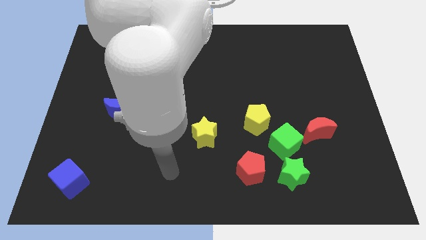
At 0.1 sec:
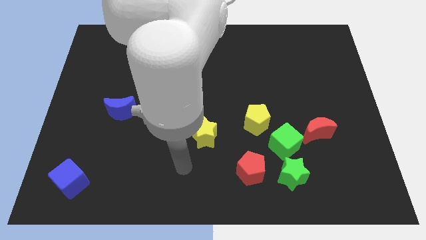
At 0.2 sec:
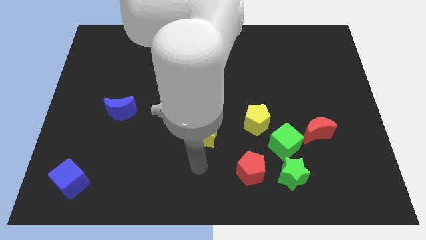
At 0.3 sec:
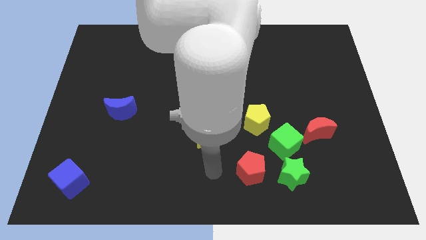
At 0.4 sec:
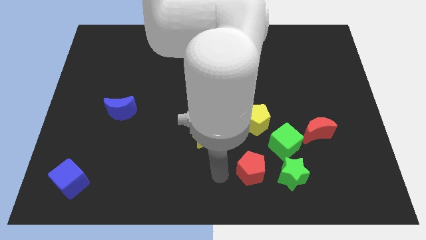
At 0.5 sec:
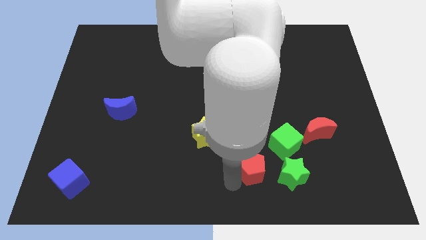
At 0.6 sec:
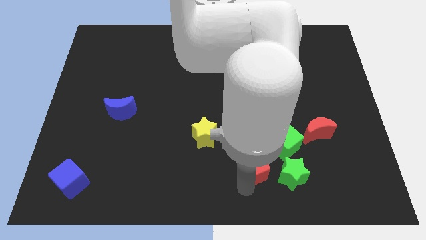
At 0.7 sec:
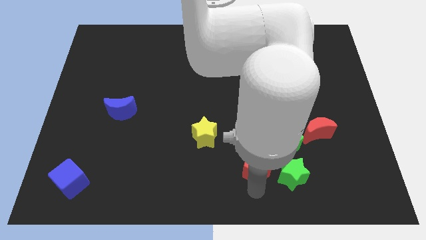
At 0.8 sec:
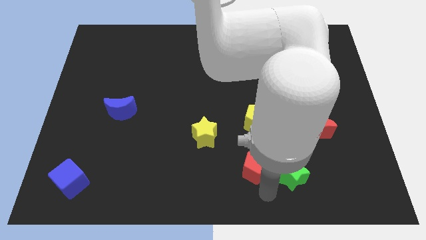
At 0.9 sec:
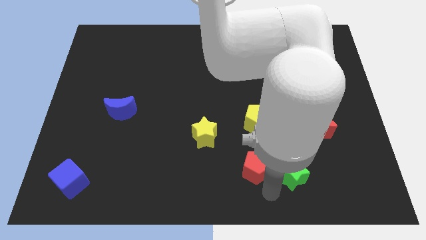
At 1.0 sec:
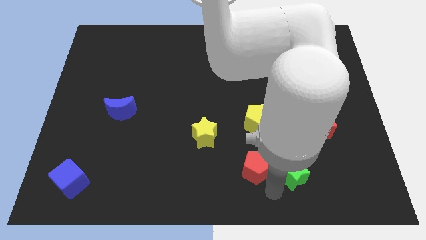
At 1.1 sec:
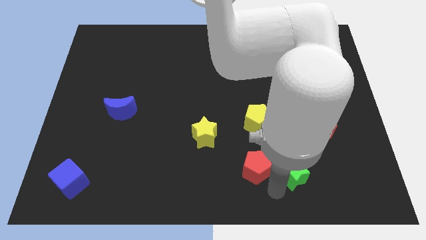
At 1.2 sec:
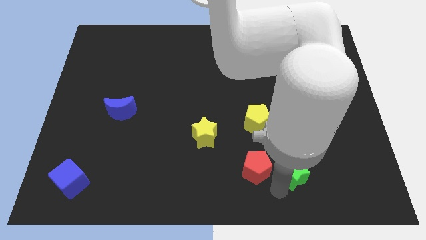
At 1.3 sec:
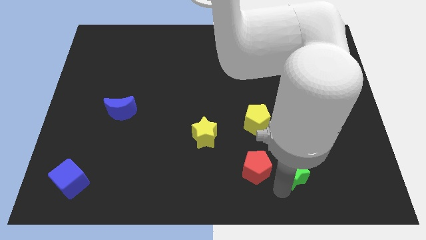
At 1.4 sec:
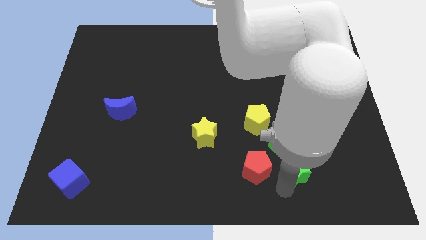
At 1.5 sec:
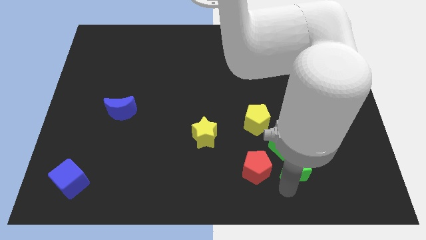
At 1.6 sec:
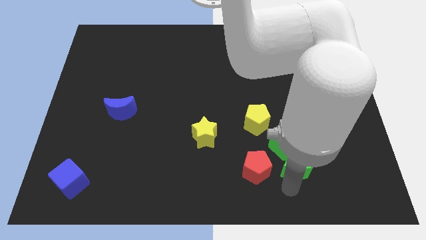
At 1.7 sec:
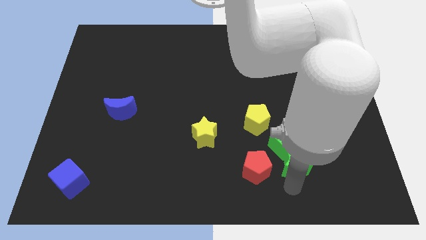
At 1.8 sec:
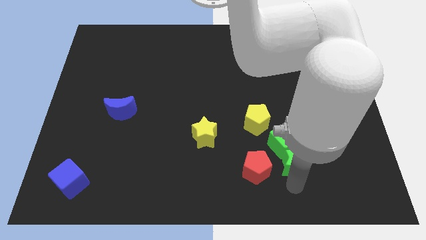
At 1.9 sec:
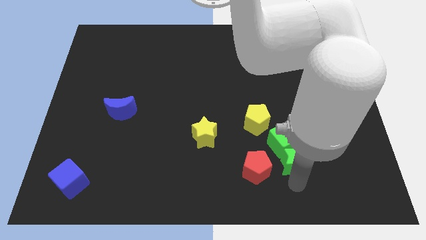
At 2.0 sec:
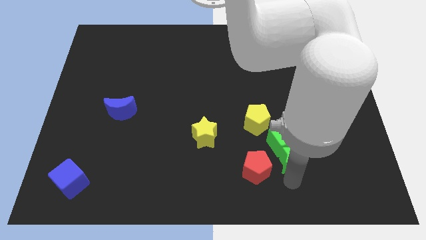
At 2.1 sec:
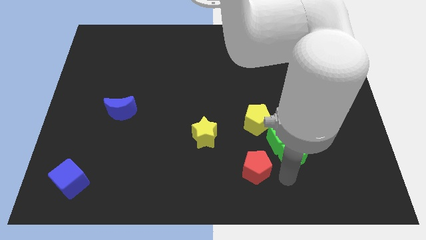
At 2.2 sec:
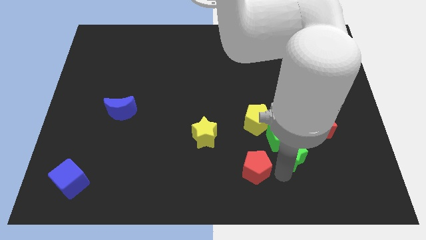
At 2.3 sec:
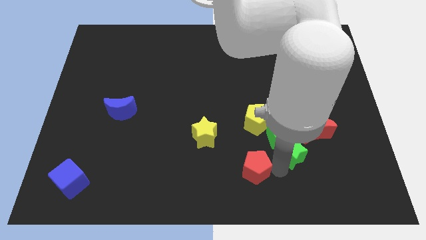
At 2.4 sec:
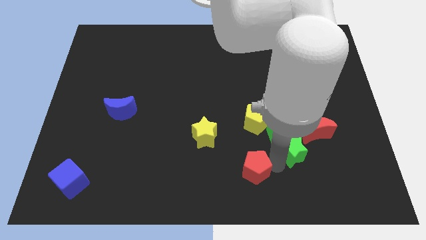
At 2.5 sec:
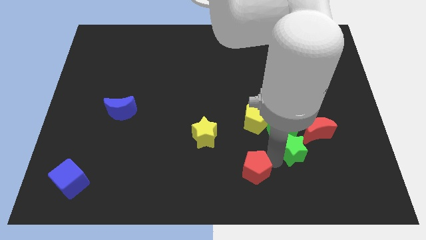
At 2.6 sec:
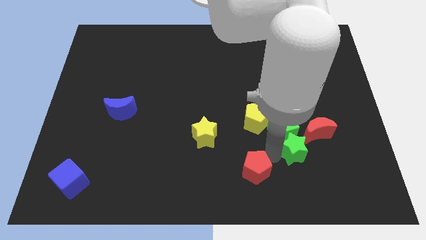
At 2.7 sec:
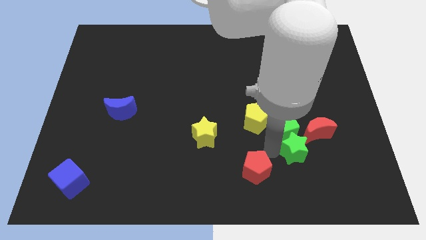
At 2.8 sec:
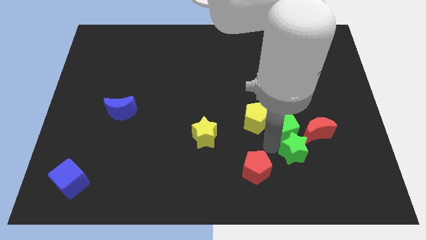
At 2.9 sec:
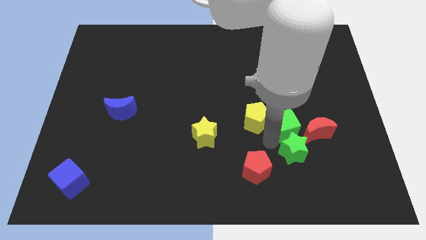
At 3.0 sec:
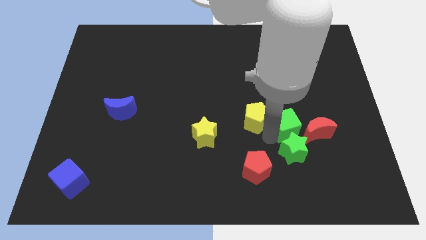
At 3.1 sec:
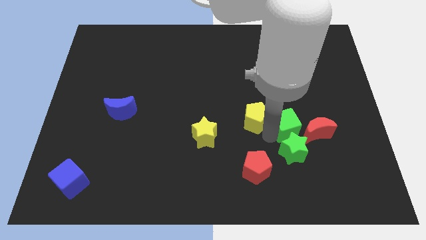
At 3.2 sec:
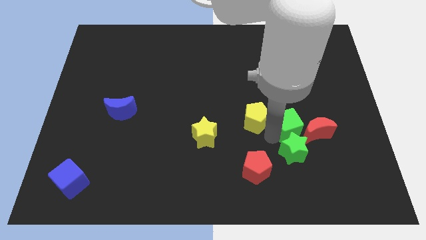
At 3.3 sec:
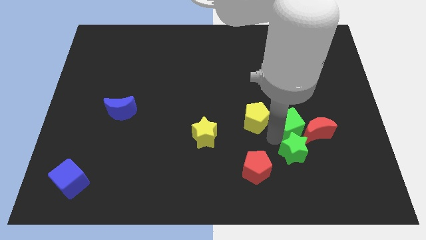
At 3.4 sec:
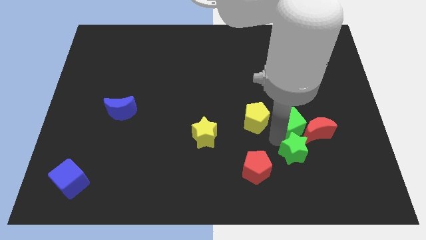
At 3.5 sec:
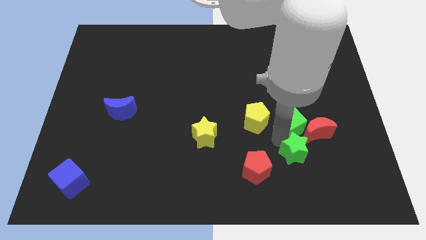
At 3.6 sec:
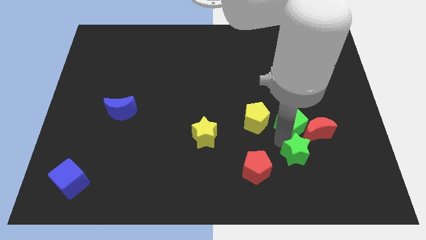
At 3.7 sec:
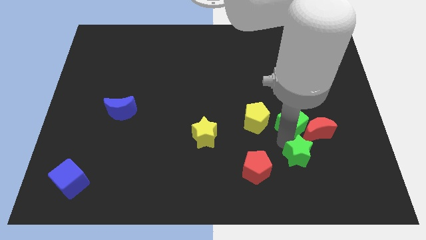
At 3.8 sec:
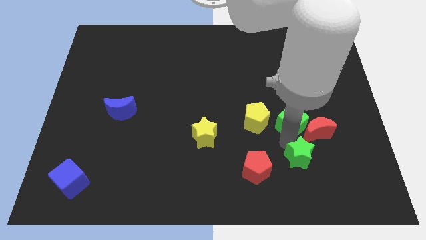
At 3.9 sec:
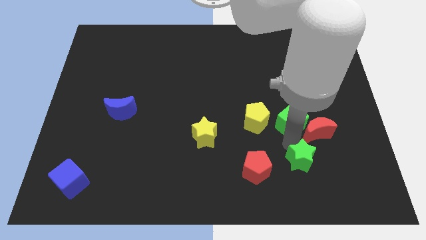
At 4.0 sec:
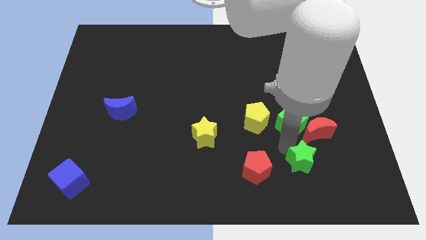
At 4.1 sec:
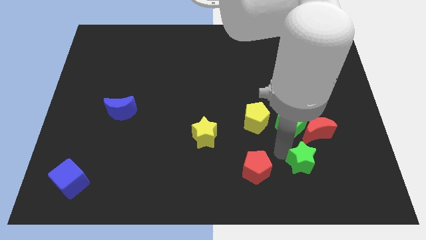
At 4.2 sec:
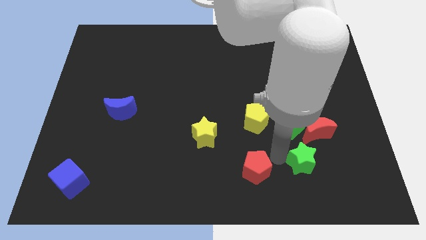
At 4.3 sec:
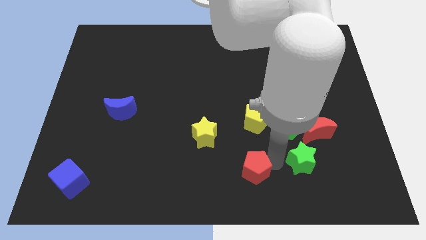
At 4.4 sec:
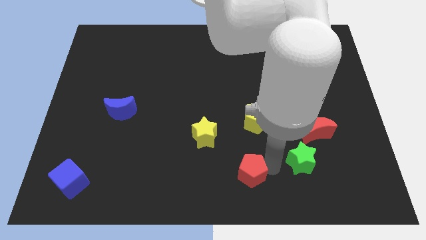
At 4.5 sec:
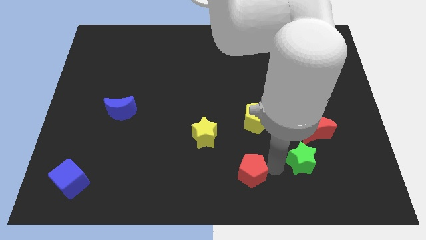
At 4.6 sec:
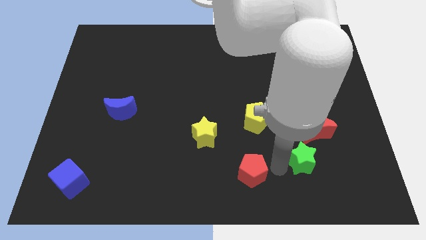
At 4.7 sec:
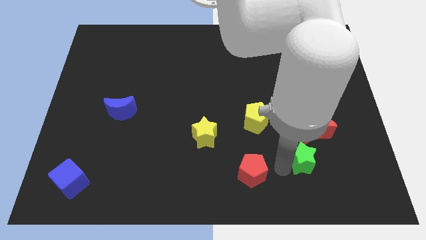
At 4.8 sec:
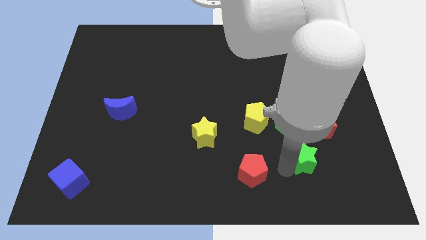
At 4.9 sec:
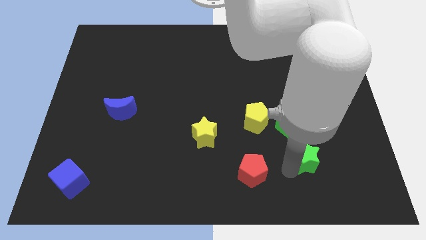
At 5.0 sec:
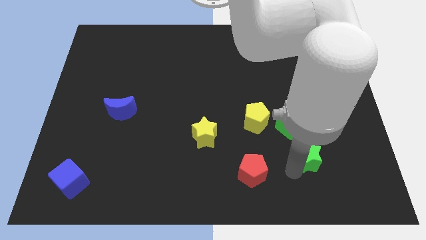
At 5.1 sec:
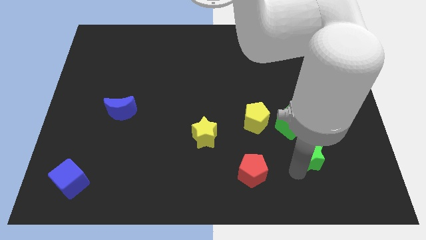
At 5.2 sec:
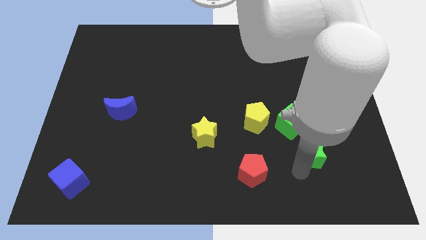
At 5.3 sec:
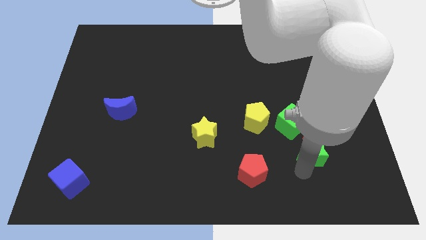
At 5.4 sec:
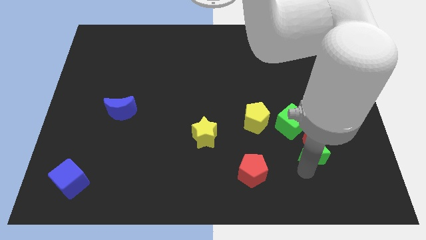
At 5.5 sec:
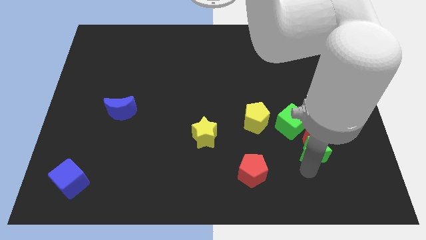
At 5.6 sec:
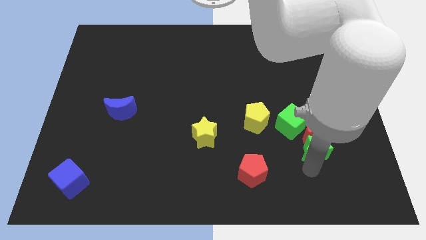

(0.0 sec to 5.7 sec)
slide the green star to the bottom right of the red moon

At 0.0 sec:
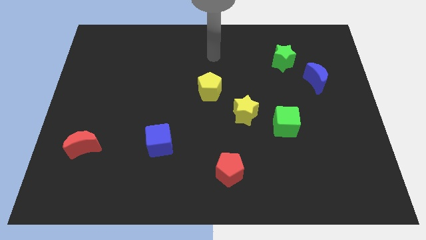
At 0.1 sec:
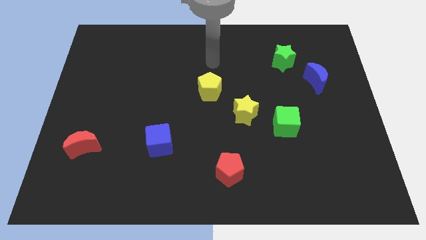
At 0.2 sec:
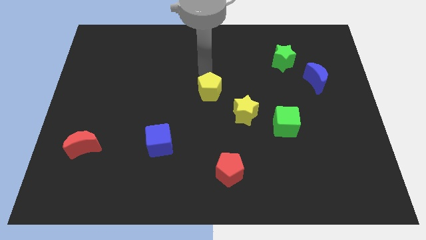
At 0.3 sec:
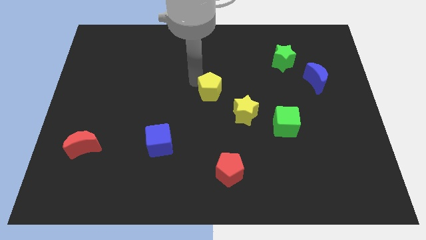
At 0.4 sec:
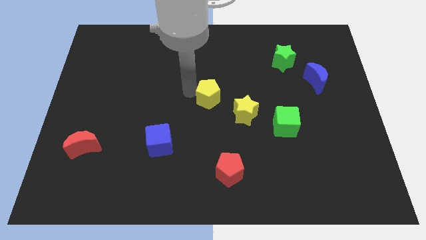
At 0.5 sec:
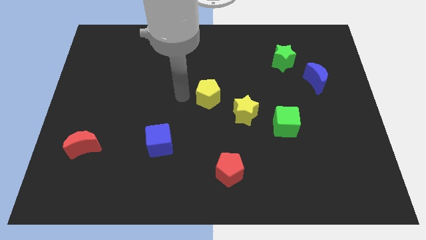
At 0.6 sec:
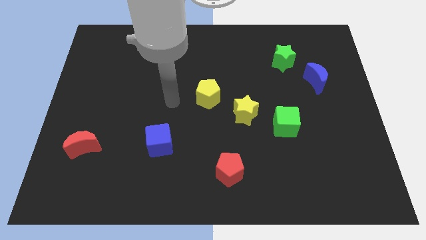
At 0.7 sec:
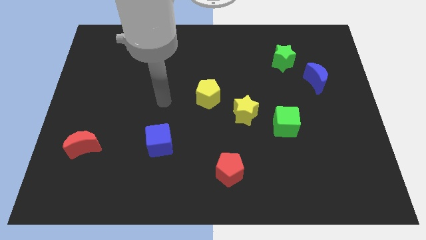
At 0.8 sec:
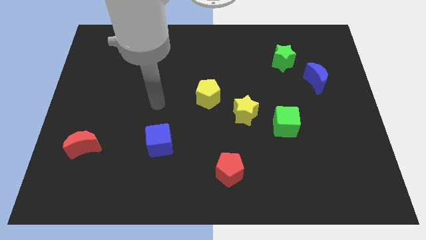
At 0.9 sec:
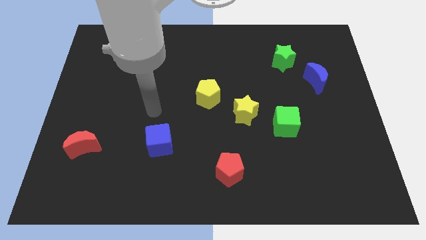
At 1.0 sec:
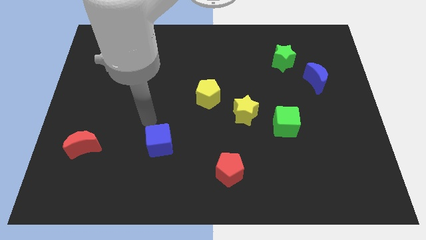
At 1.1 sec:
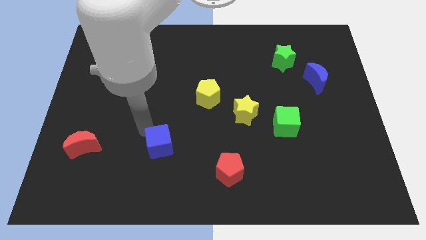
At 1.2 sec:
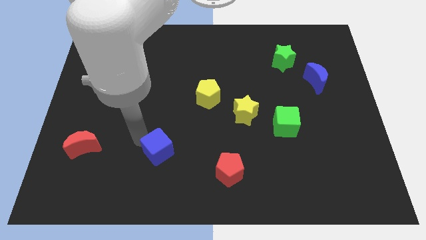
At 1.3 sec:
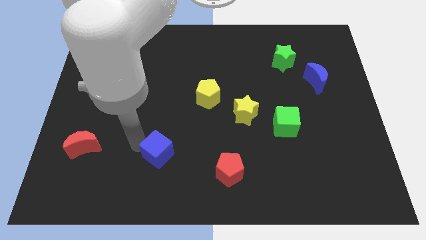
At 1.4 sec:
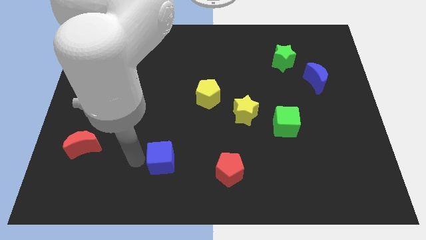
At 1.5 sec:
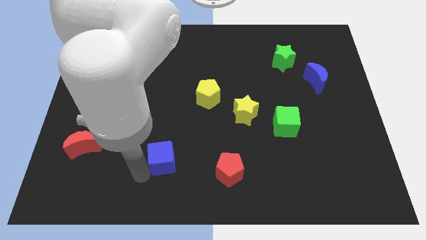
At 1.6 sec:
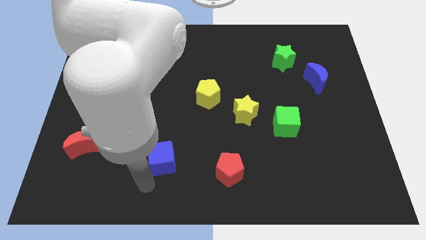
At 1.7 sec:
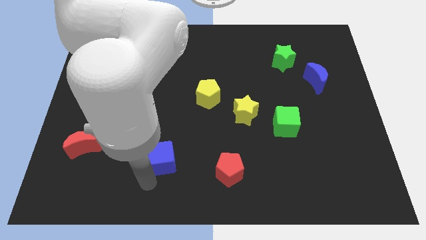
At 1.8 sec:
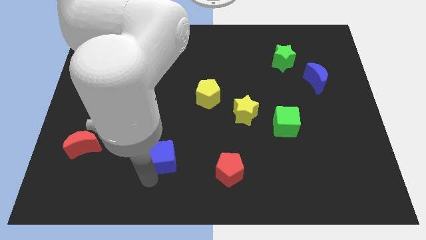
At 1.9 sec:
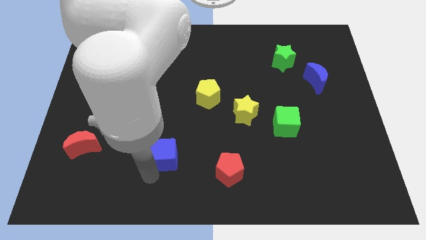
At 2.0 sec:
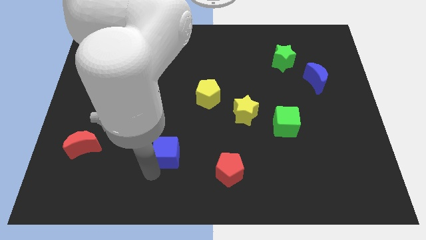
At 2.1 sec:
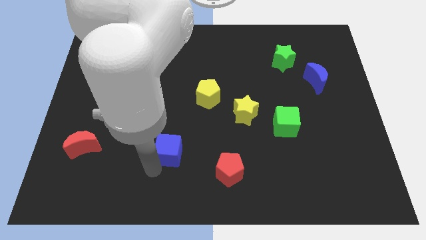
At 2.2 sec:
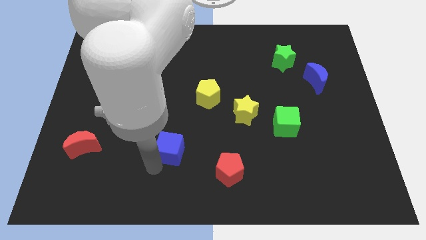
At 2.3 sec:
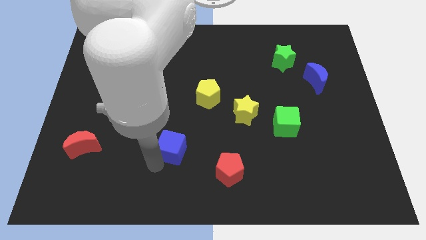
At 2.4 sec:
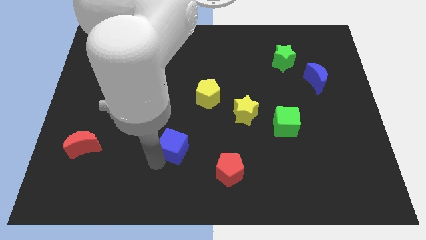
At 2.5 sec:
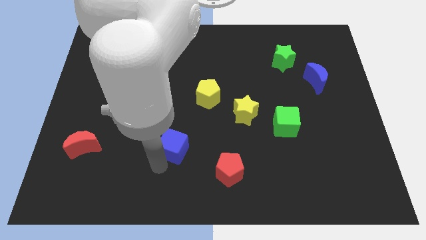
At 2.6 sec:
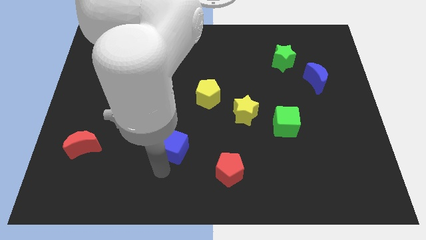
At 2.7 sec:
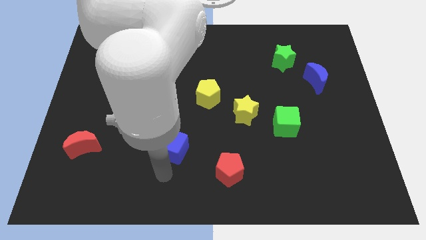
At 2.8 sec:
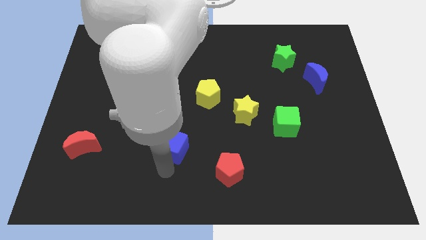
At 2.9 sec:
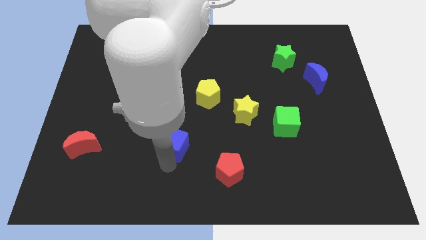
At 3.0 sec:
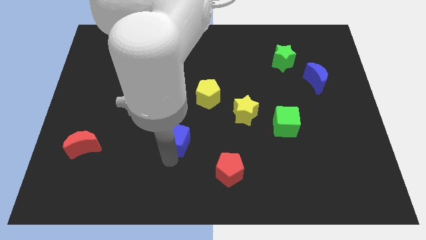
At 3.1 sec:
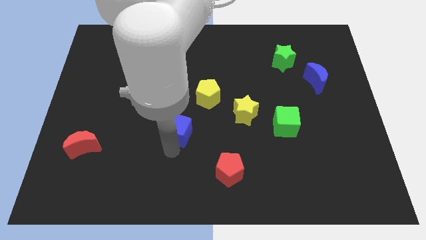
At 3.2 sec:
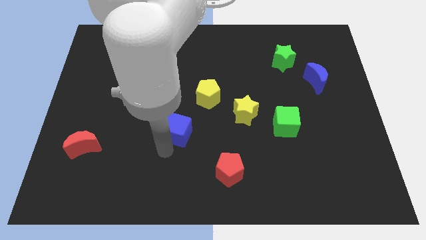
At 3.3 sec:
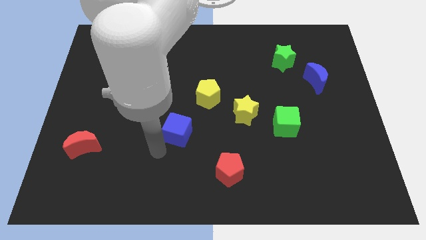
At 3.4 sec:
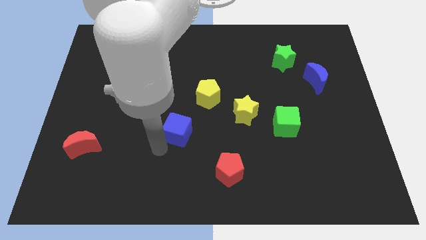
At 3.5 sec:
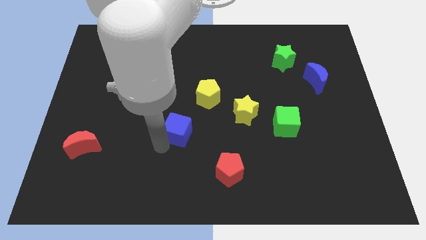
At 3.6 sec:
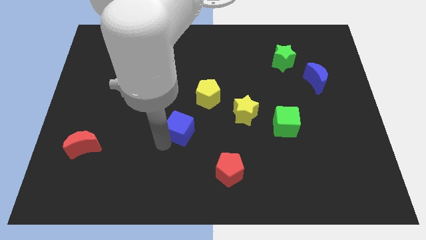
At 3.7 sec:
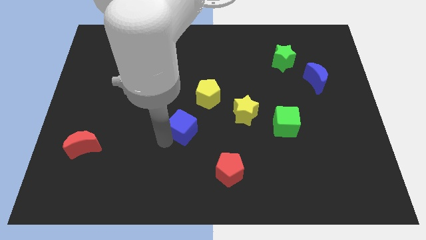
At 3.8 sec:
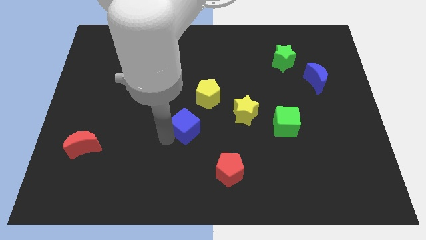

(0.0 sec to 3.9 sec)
push the blue cube to the left of the yellow star
